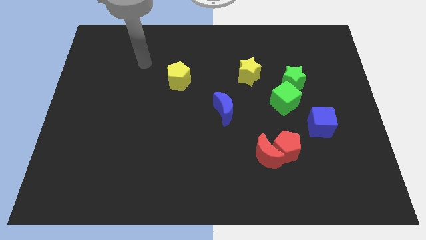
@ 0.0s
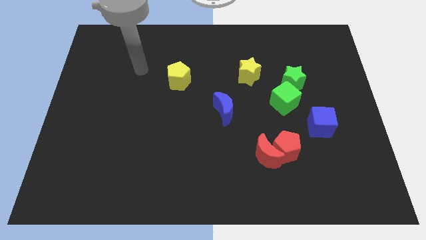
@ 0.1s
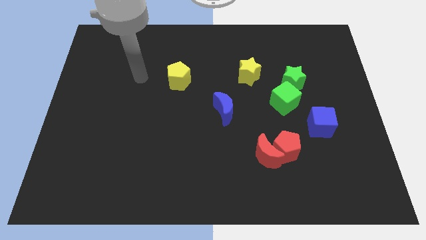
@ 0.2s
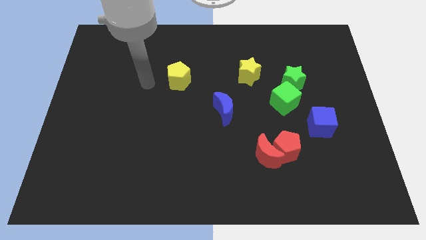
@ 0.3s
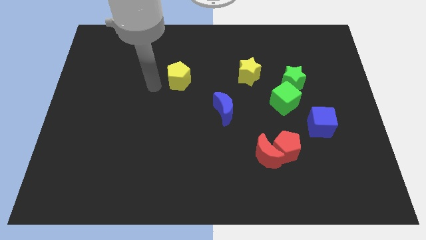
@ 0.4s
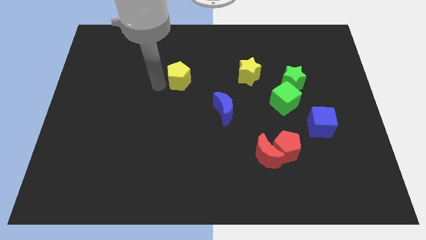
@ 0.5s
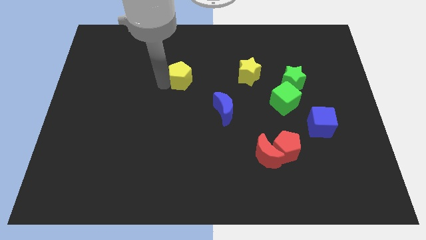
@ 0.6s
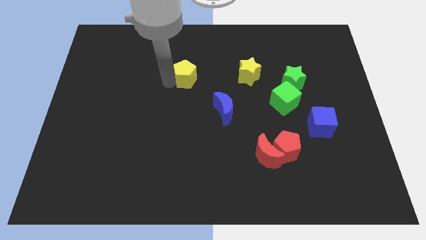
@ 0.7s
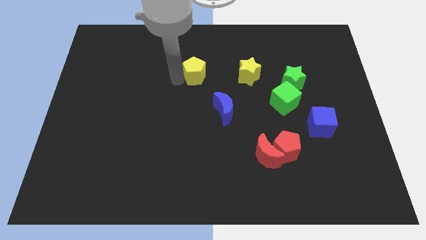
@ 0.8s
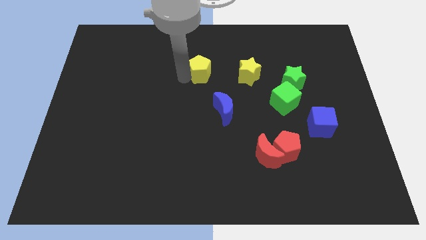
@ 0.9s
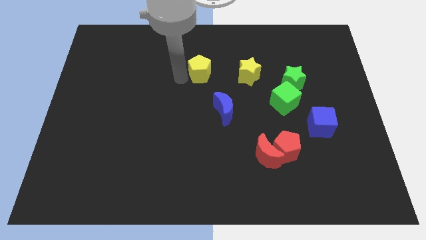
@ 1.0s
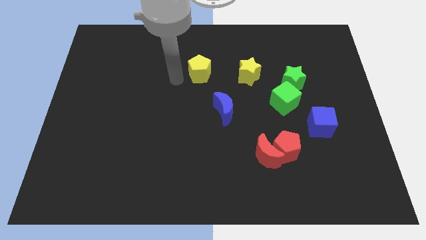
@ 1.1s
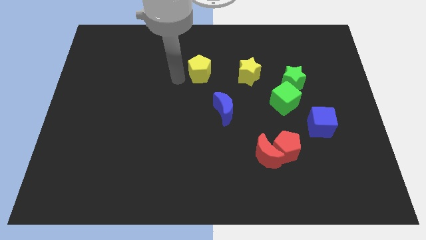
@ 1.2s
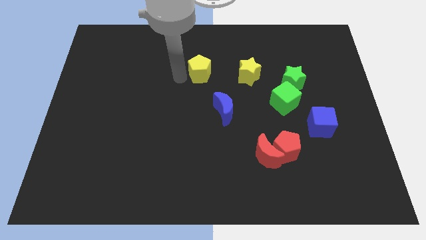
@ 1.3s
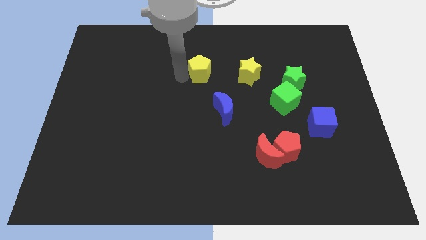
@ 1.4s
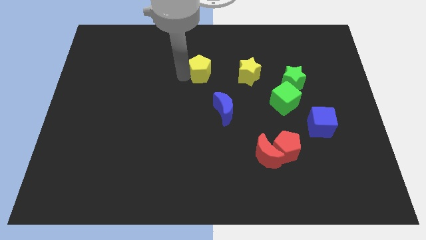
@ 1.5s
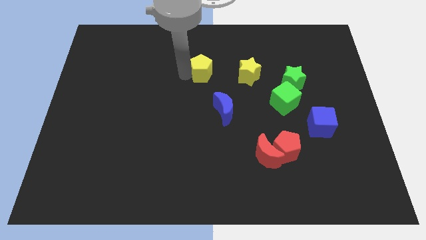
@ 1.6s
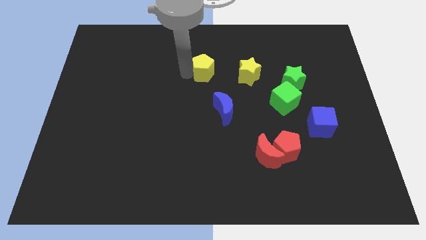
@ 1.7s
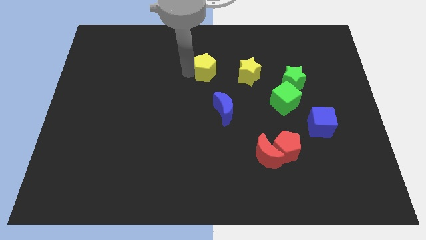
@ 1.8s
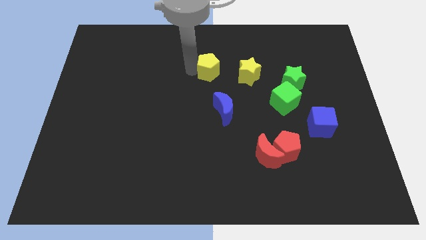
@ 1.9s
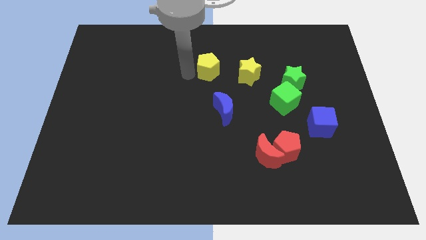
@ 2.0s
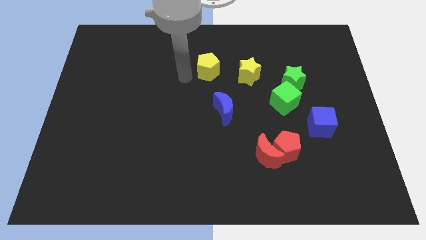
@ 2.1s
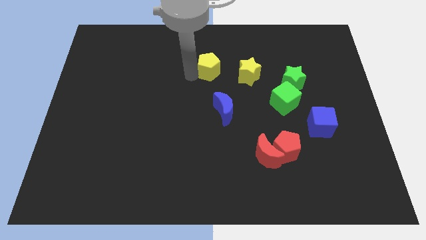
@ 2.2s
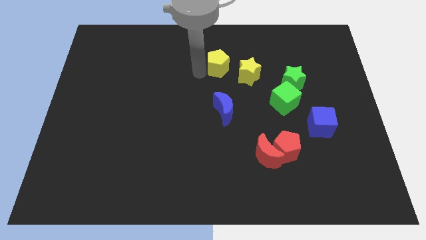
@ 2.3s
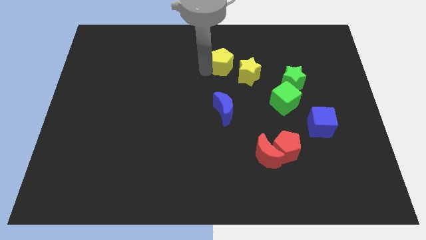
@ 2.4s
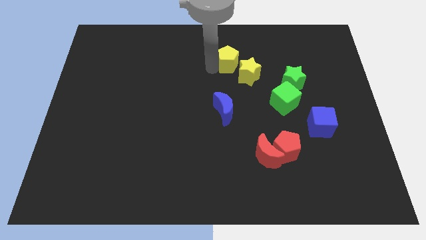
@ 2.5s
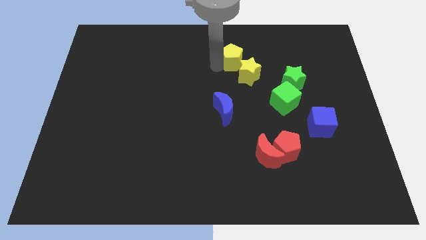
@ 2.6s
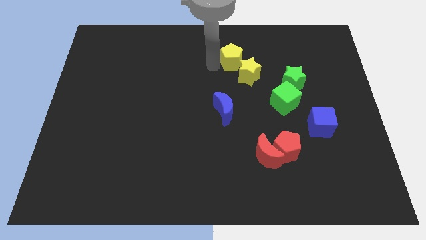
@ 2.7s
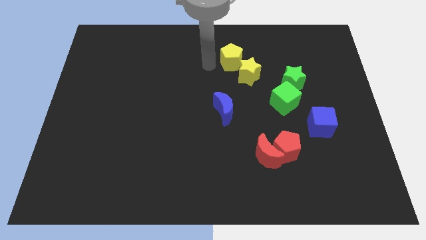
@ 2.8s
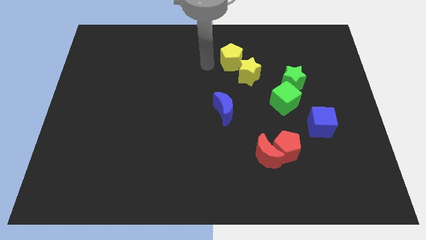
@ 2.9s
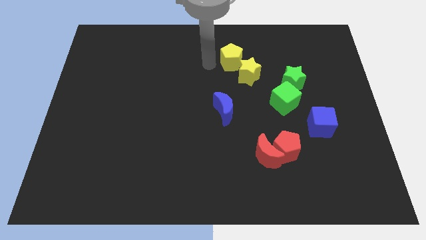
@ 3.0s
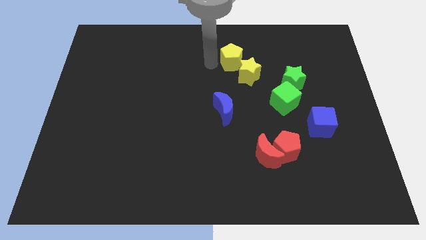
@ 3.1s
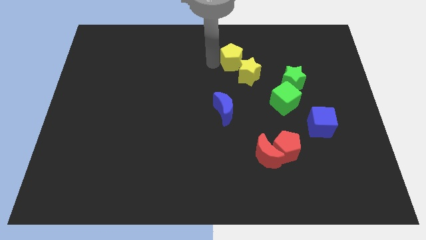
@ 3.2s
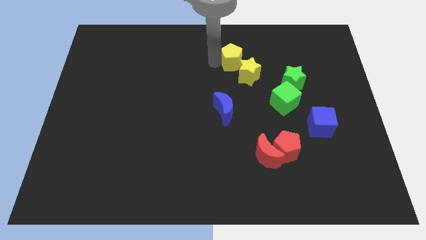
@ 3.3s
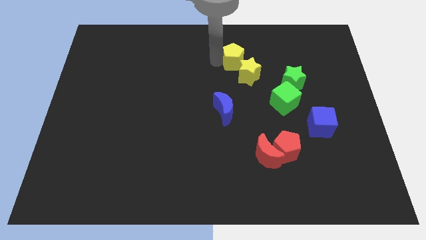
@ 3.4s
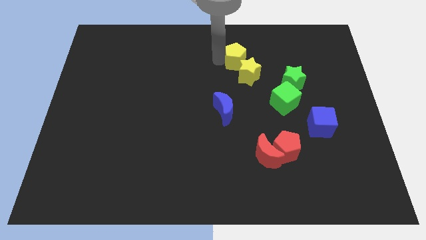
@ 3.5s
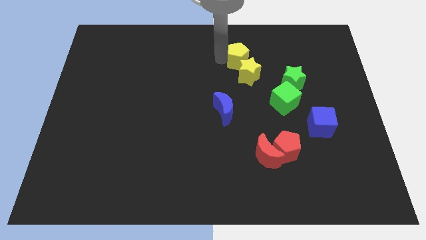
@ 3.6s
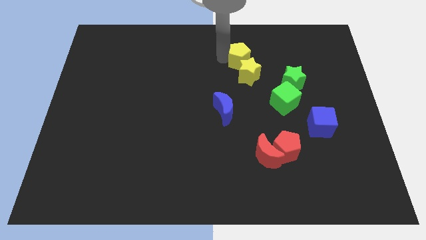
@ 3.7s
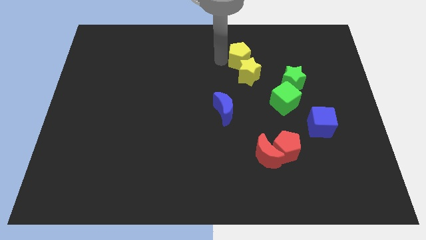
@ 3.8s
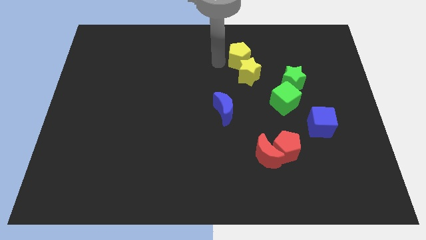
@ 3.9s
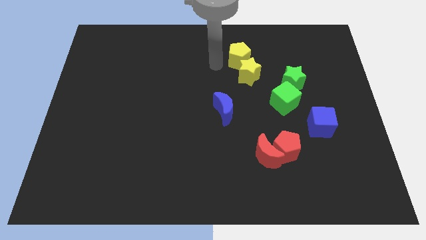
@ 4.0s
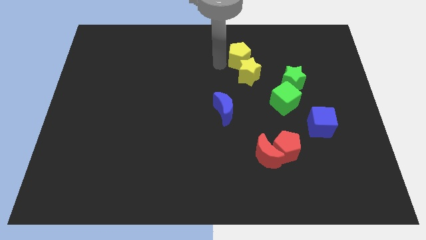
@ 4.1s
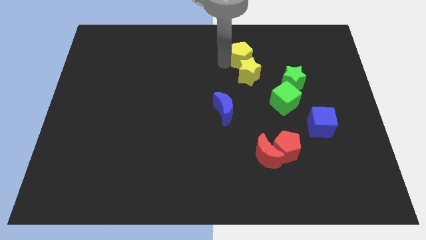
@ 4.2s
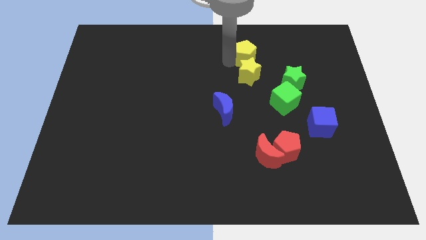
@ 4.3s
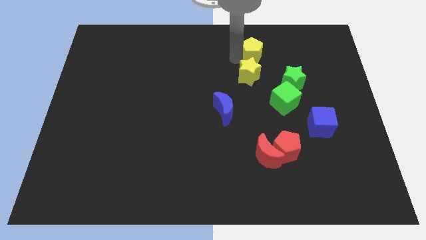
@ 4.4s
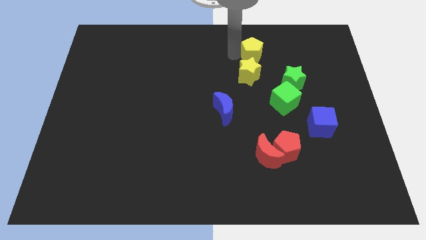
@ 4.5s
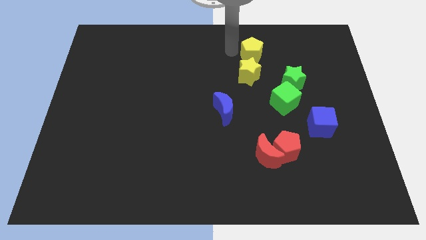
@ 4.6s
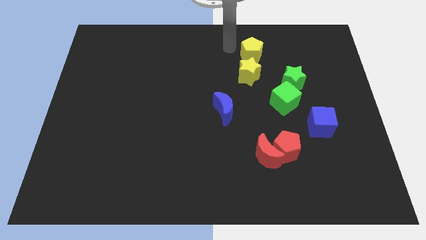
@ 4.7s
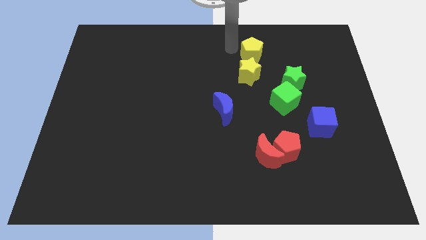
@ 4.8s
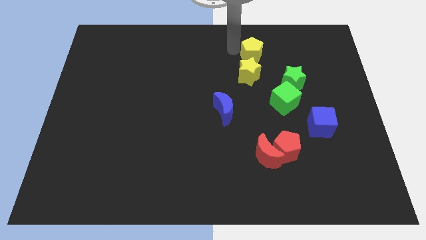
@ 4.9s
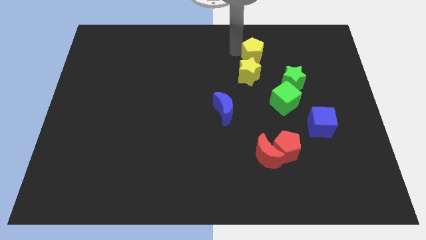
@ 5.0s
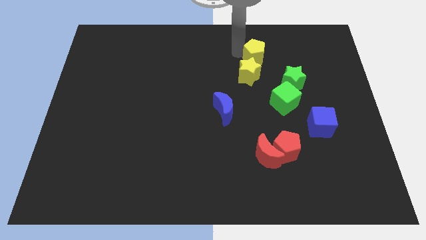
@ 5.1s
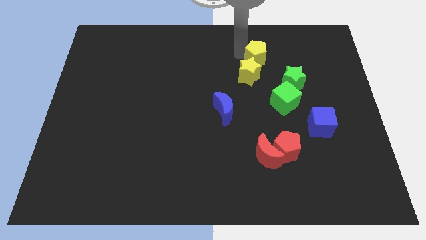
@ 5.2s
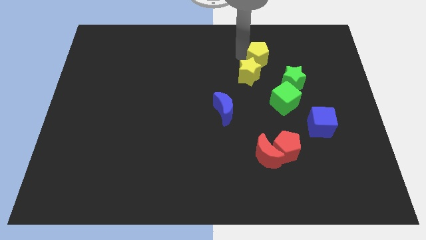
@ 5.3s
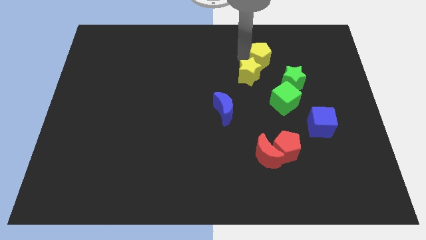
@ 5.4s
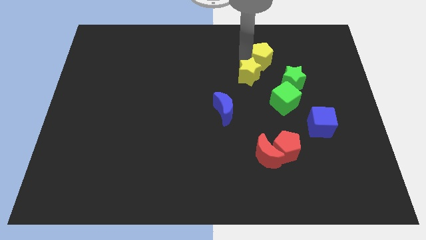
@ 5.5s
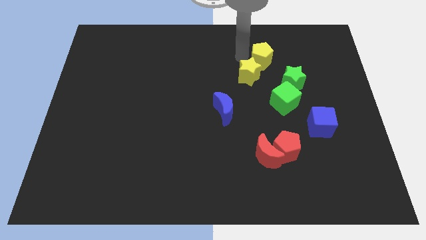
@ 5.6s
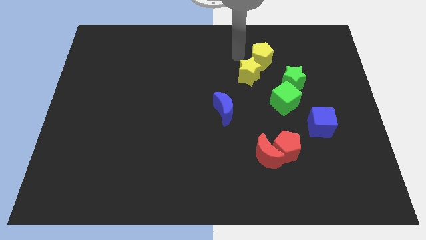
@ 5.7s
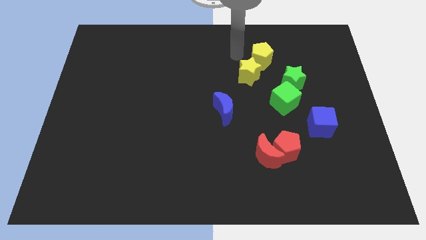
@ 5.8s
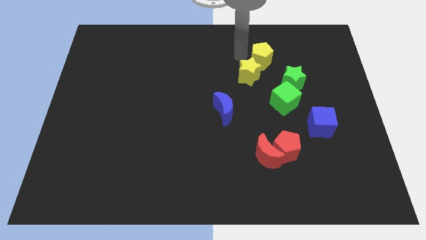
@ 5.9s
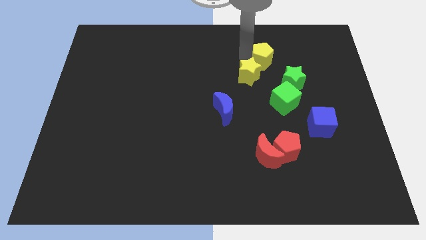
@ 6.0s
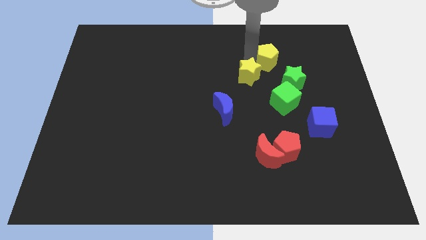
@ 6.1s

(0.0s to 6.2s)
move the yellow pentagon right

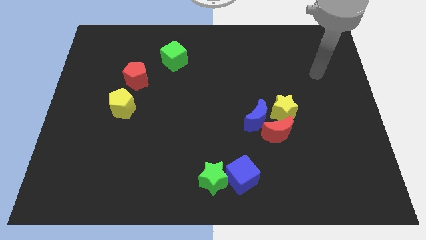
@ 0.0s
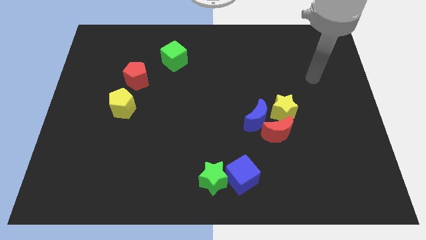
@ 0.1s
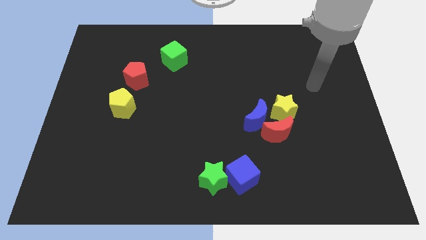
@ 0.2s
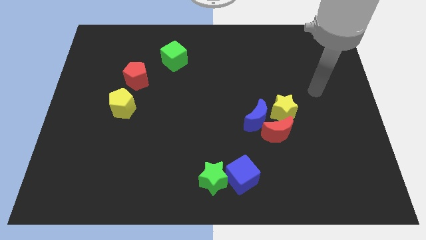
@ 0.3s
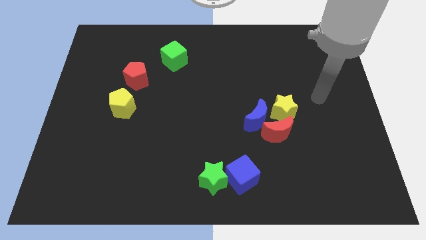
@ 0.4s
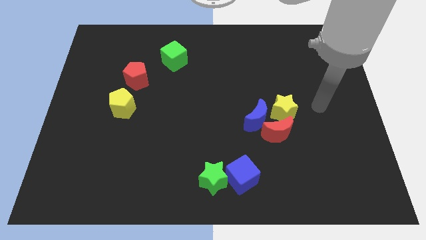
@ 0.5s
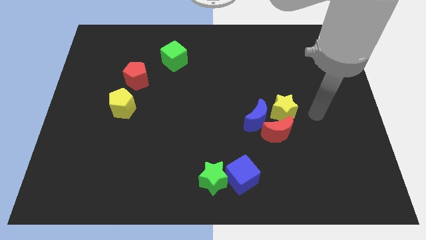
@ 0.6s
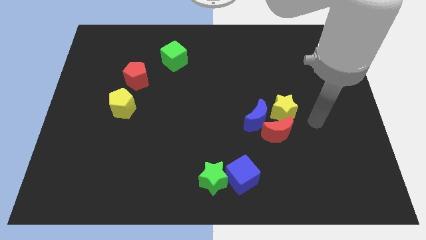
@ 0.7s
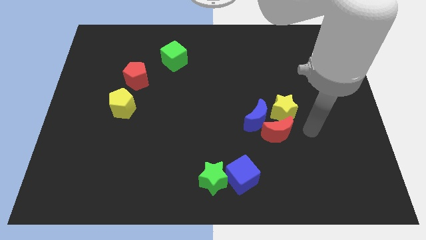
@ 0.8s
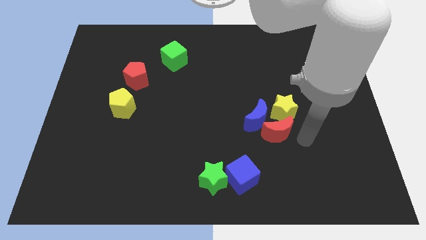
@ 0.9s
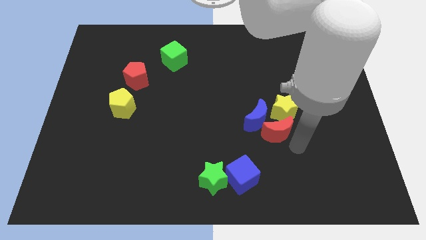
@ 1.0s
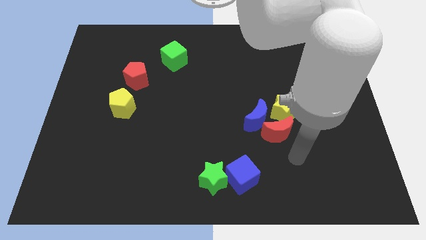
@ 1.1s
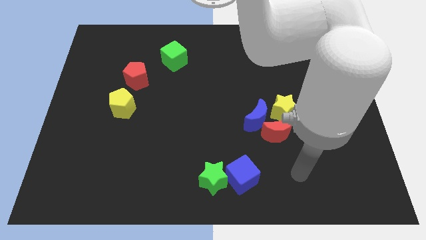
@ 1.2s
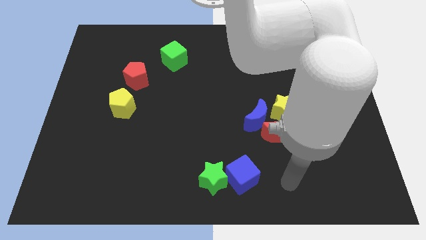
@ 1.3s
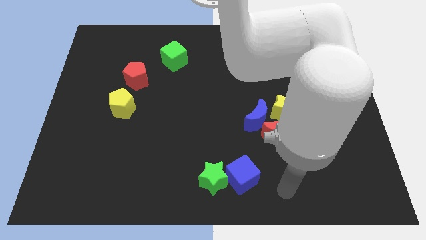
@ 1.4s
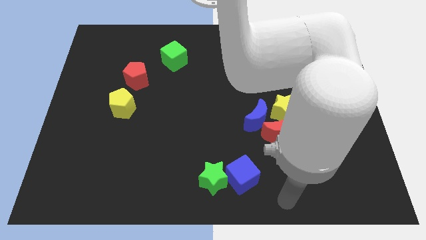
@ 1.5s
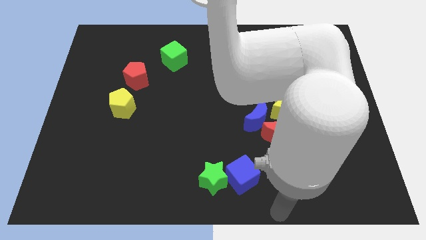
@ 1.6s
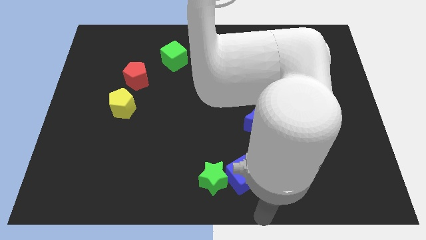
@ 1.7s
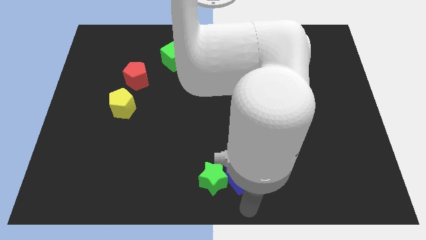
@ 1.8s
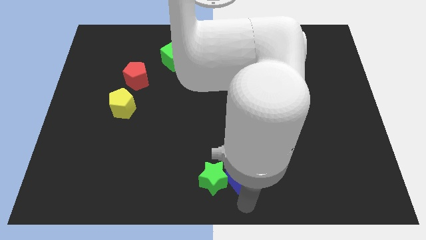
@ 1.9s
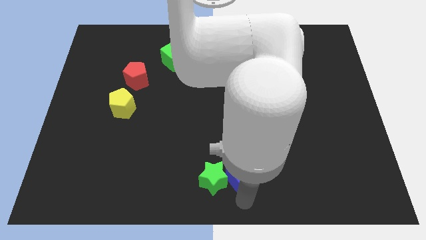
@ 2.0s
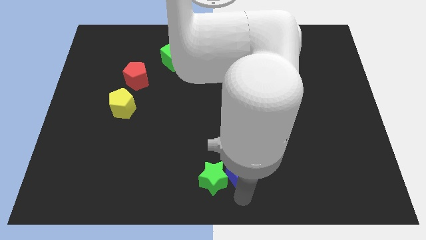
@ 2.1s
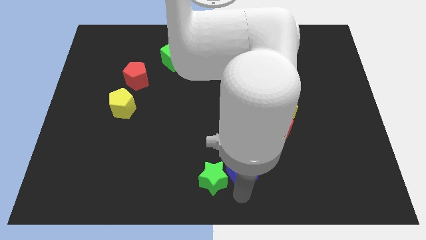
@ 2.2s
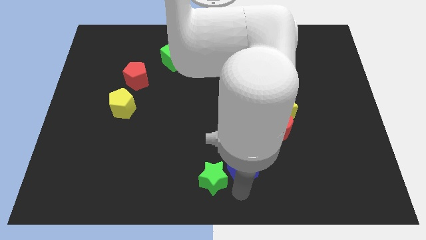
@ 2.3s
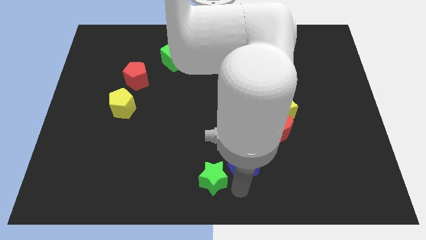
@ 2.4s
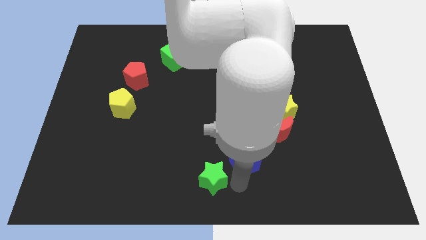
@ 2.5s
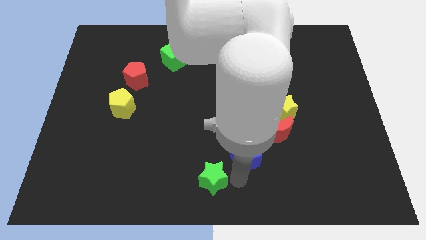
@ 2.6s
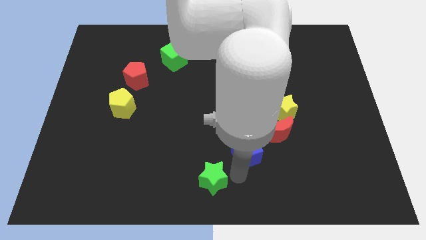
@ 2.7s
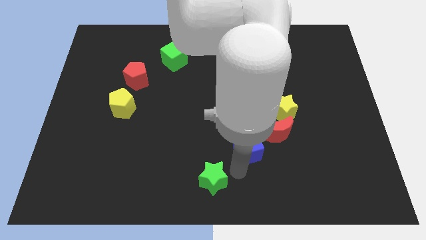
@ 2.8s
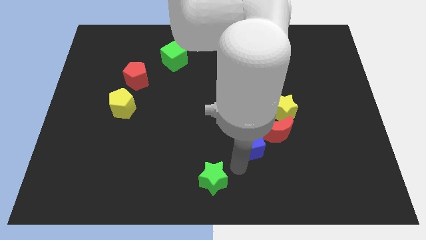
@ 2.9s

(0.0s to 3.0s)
move the blue cube a little upwards
